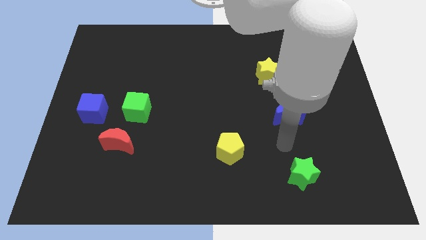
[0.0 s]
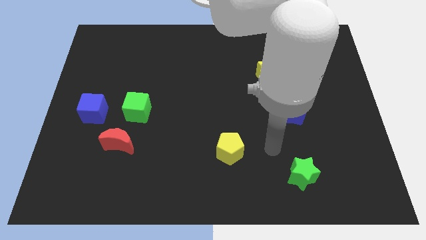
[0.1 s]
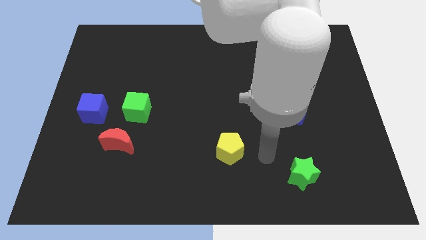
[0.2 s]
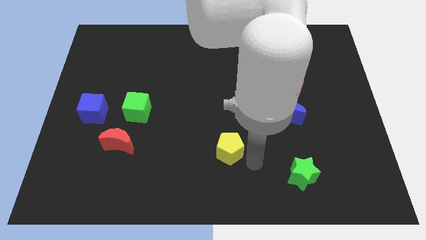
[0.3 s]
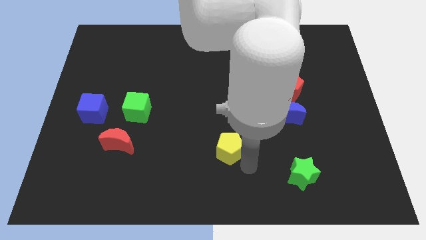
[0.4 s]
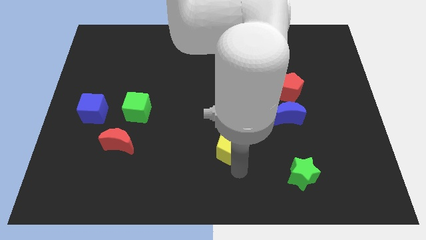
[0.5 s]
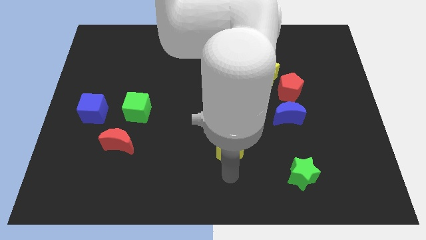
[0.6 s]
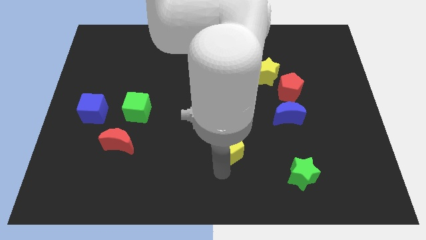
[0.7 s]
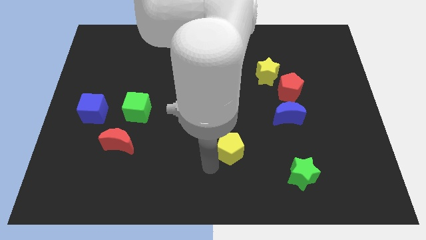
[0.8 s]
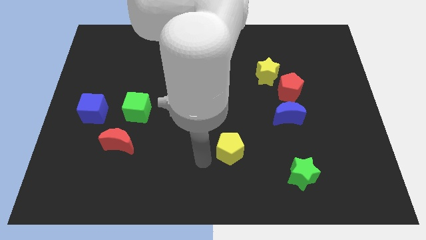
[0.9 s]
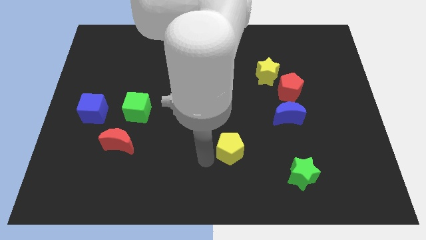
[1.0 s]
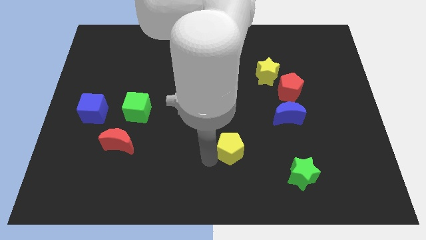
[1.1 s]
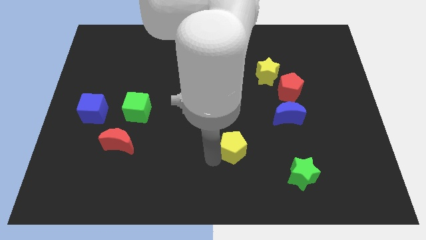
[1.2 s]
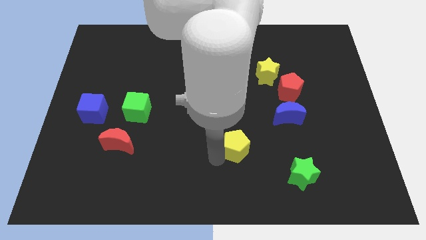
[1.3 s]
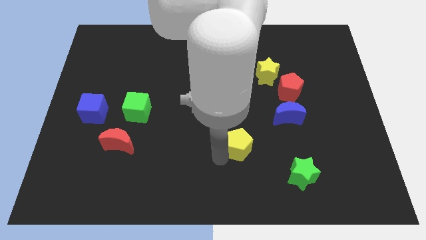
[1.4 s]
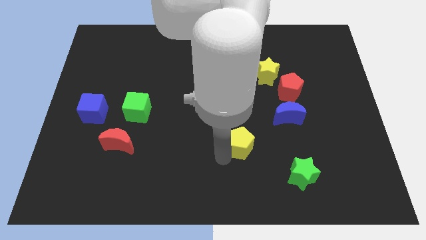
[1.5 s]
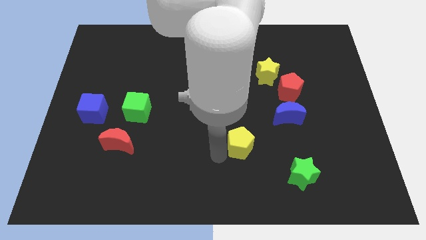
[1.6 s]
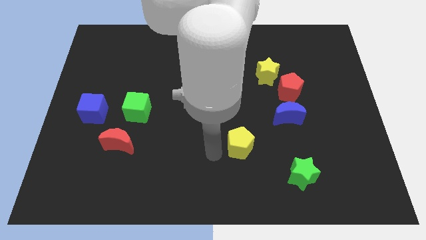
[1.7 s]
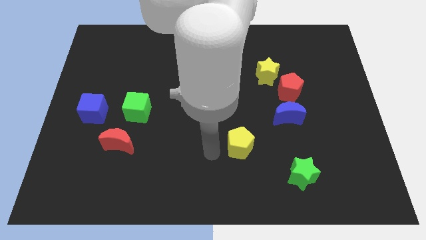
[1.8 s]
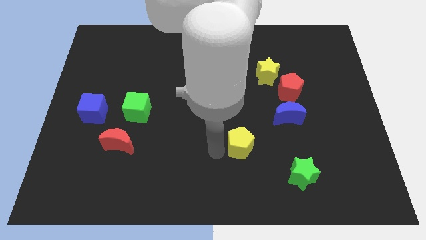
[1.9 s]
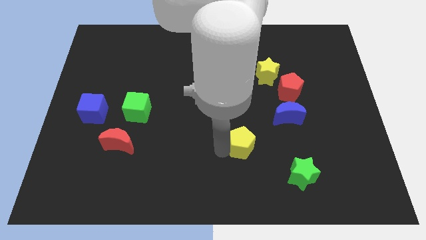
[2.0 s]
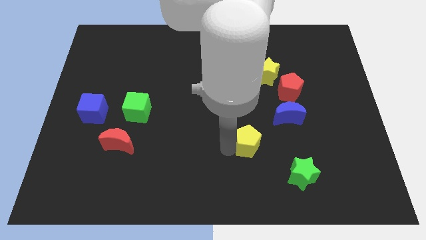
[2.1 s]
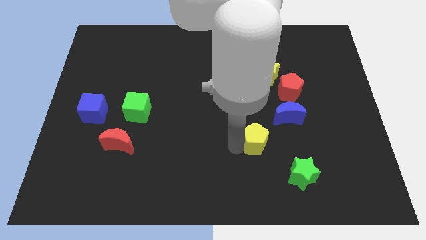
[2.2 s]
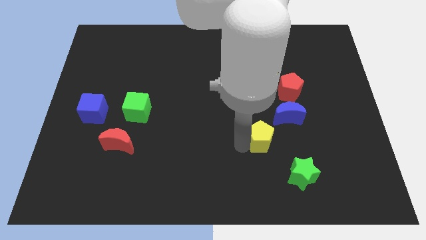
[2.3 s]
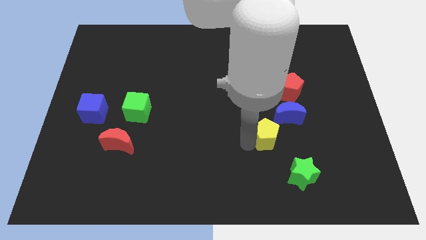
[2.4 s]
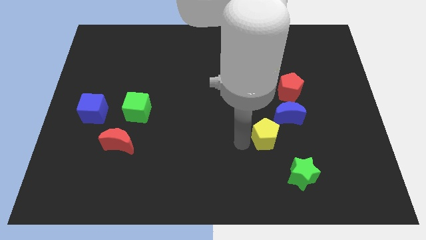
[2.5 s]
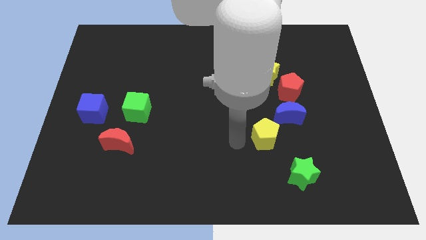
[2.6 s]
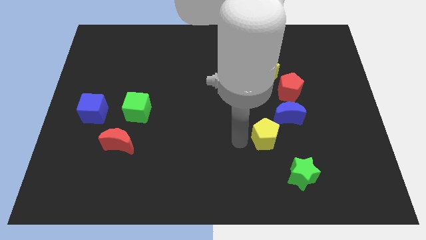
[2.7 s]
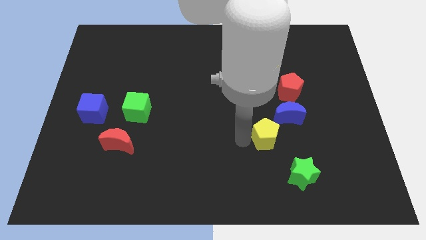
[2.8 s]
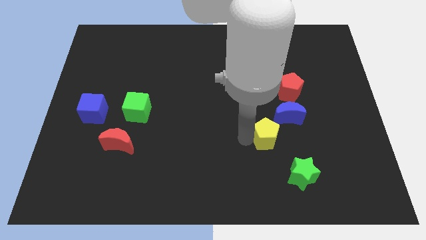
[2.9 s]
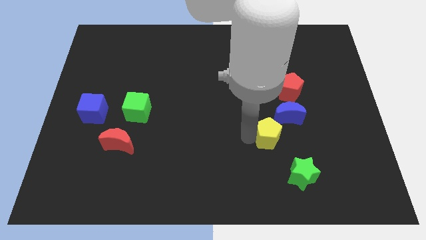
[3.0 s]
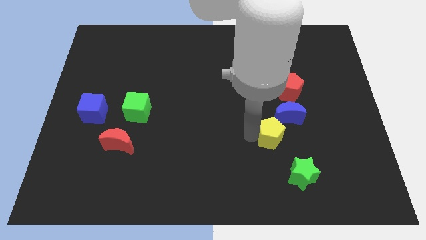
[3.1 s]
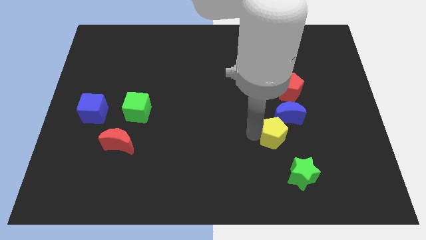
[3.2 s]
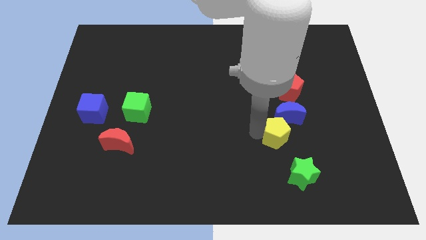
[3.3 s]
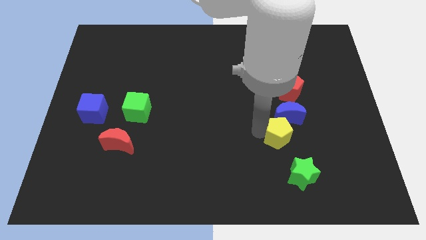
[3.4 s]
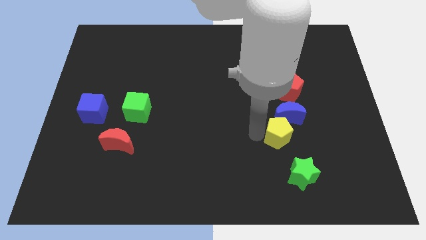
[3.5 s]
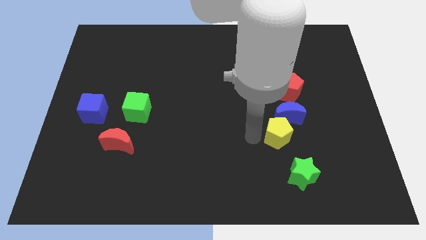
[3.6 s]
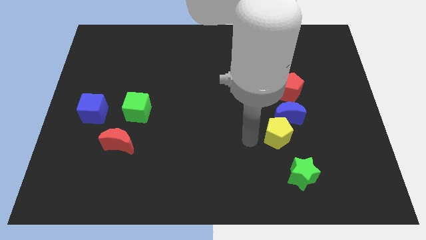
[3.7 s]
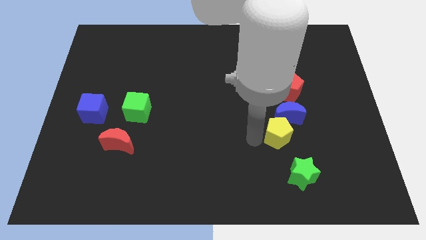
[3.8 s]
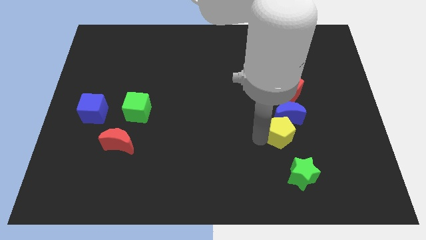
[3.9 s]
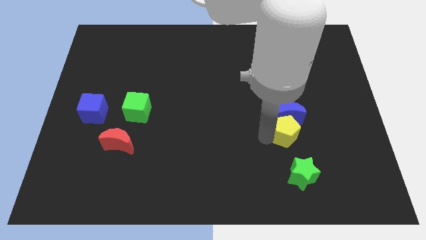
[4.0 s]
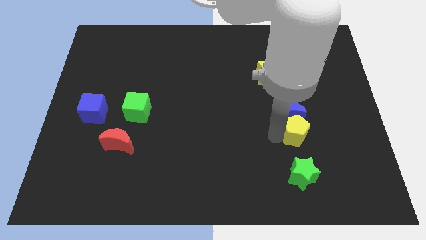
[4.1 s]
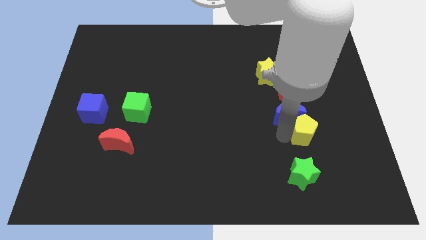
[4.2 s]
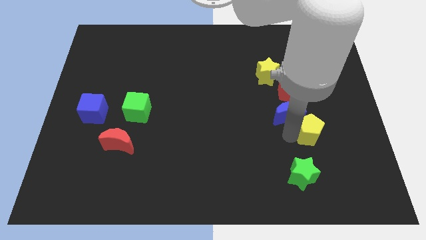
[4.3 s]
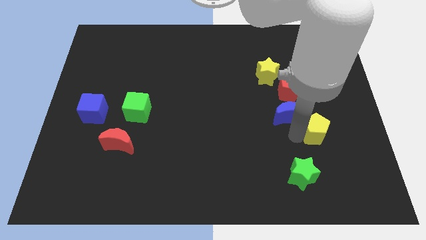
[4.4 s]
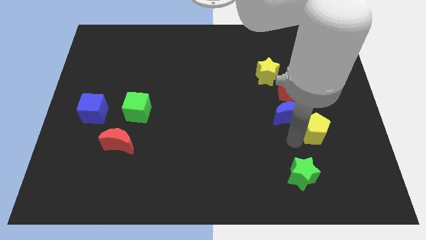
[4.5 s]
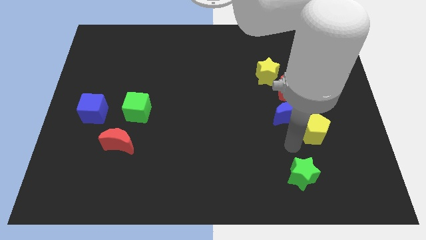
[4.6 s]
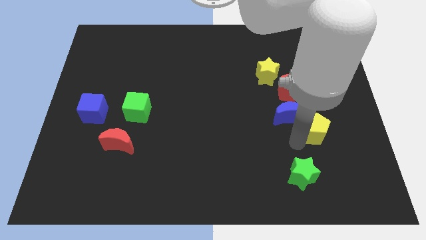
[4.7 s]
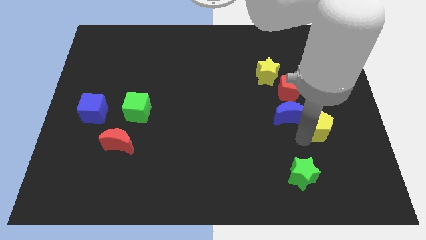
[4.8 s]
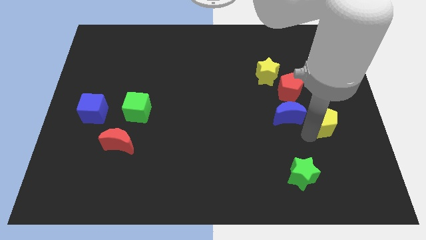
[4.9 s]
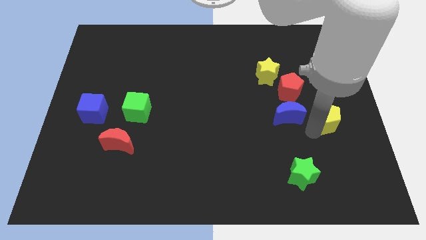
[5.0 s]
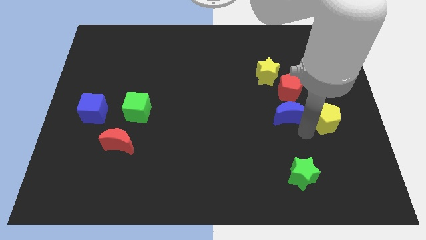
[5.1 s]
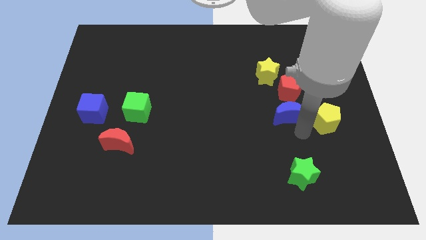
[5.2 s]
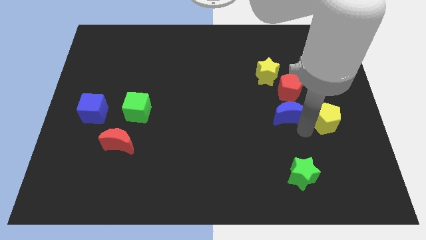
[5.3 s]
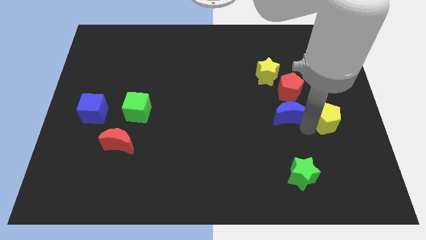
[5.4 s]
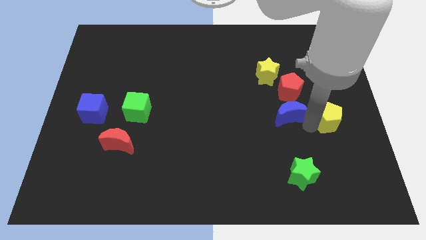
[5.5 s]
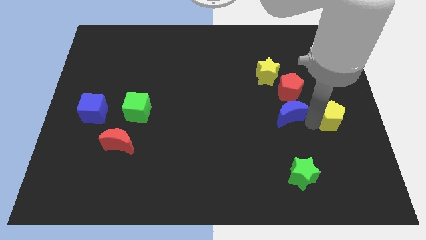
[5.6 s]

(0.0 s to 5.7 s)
move the yellow pentagon to the right side
